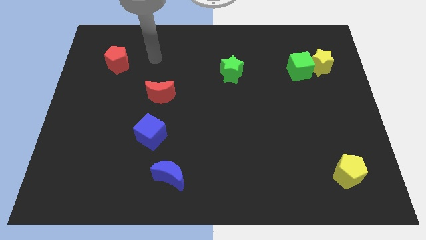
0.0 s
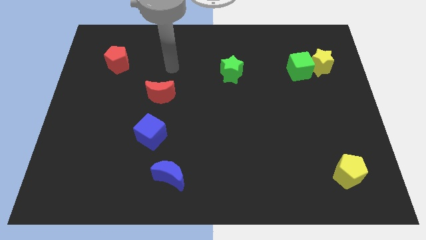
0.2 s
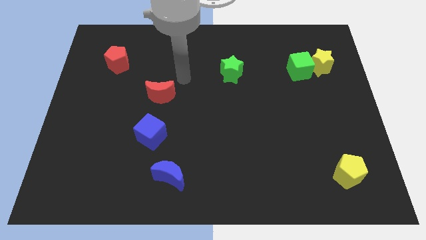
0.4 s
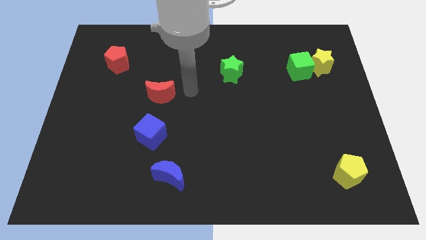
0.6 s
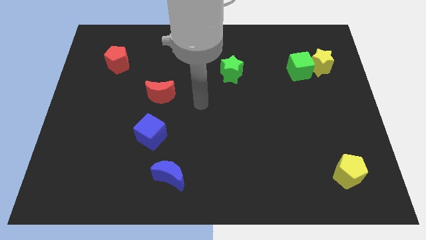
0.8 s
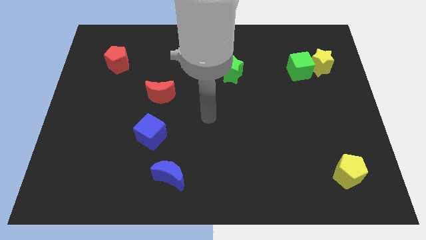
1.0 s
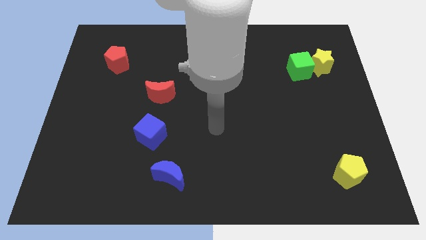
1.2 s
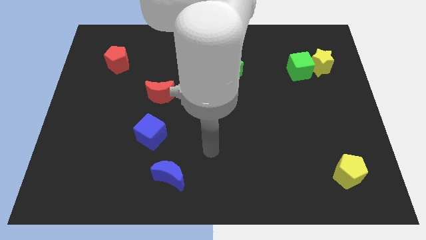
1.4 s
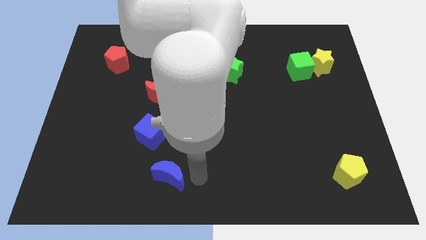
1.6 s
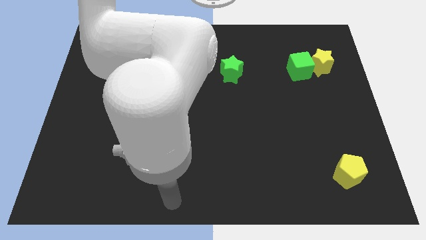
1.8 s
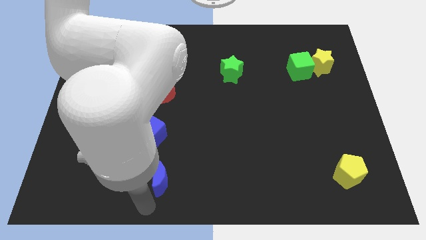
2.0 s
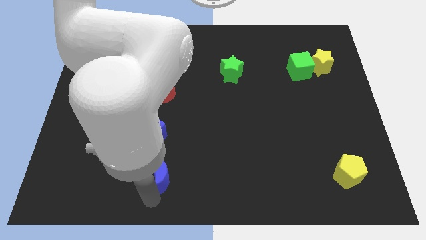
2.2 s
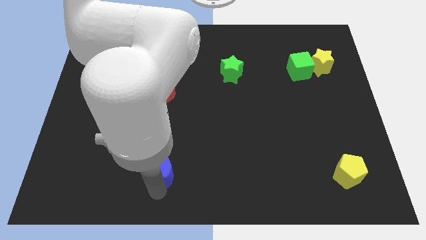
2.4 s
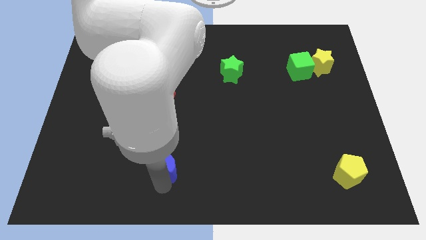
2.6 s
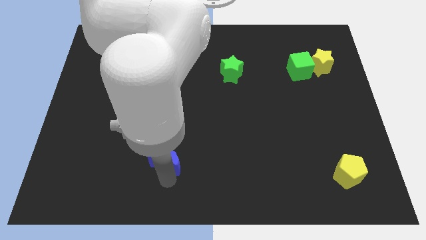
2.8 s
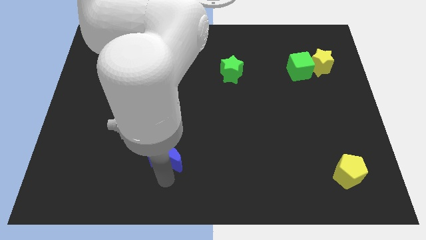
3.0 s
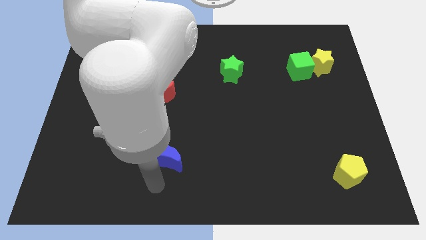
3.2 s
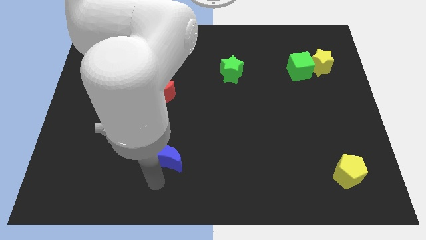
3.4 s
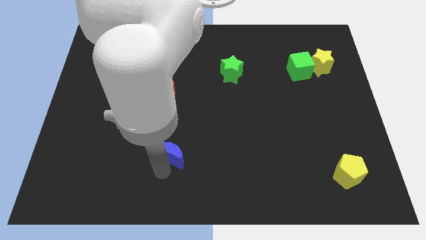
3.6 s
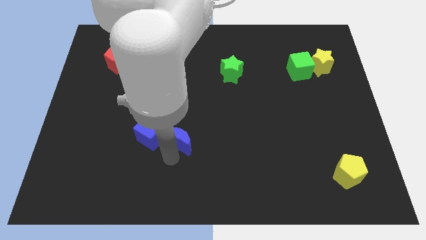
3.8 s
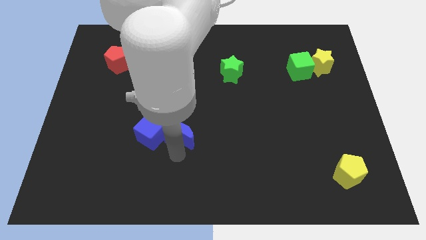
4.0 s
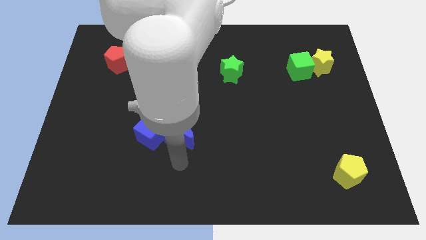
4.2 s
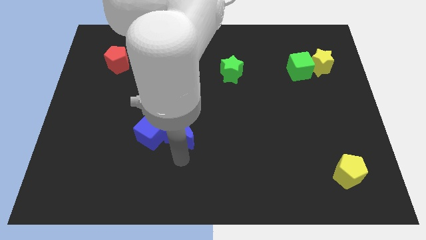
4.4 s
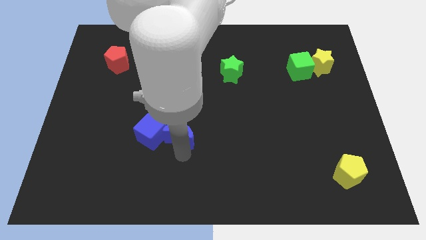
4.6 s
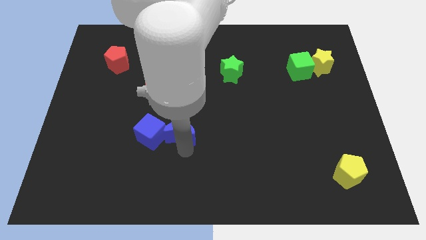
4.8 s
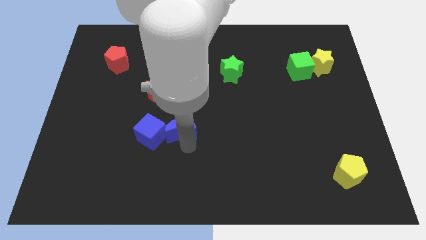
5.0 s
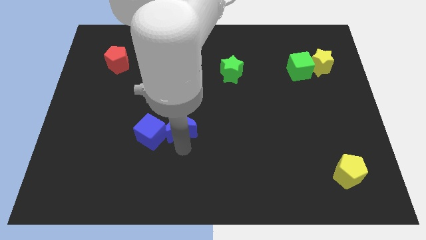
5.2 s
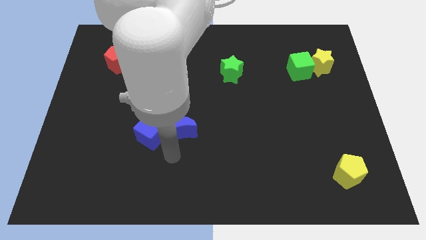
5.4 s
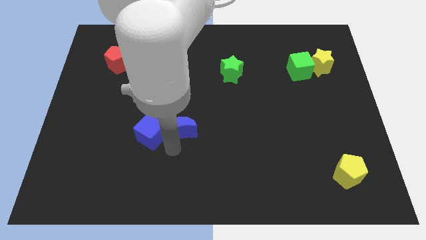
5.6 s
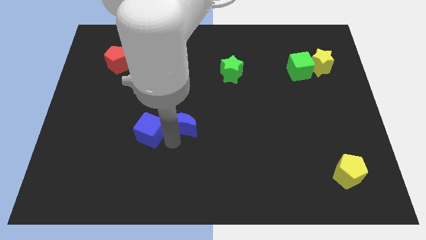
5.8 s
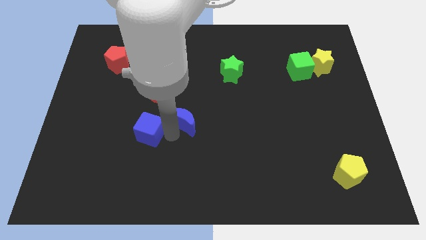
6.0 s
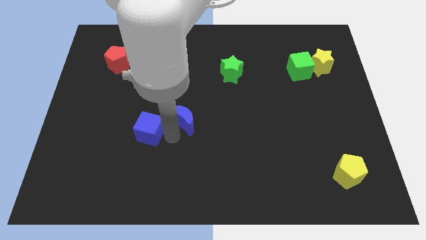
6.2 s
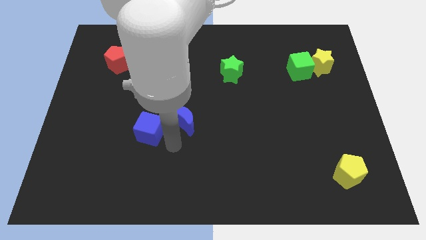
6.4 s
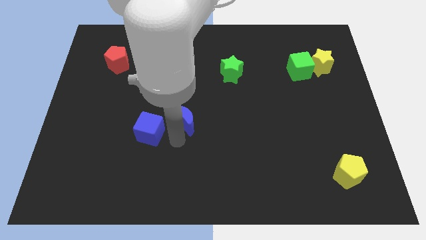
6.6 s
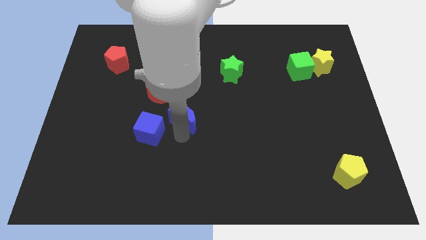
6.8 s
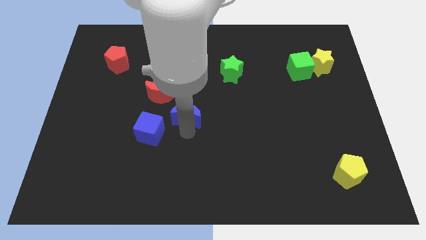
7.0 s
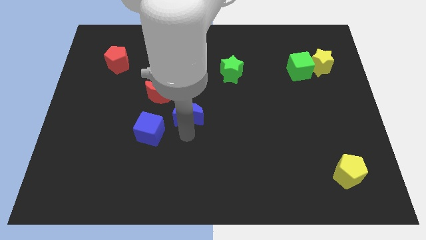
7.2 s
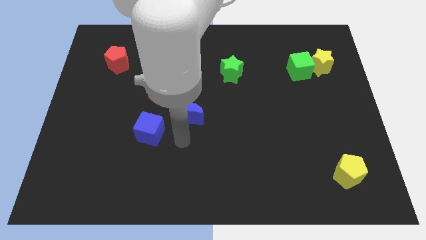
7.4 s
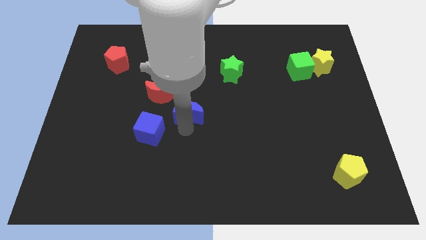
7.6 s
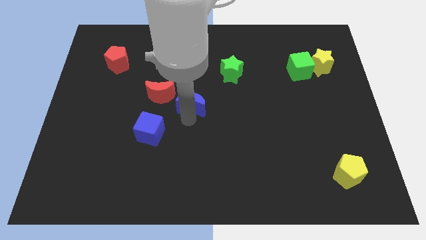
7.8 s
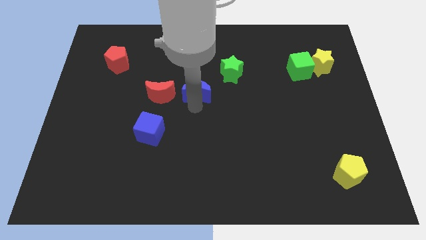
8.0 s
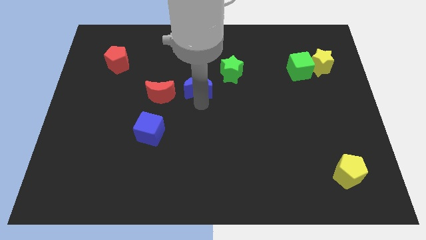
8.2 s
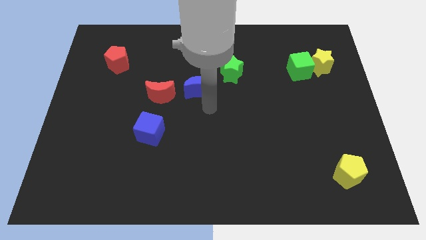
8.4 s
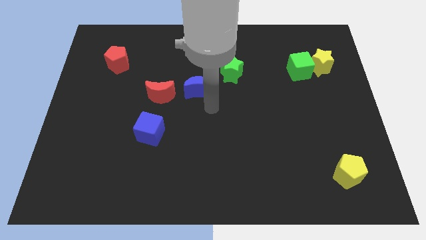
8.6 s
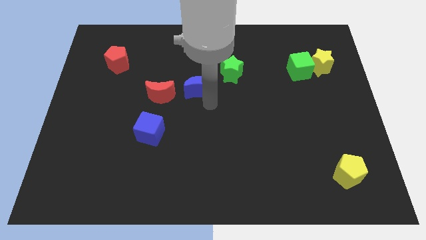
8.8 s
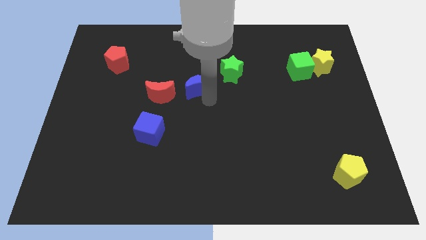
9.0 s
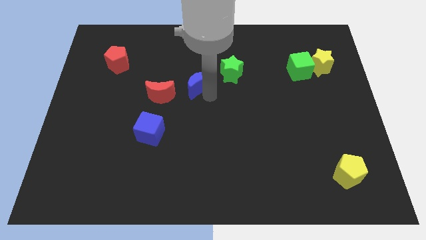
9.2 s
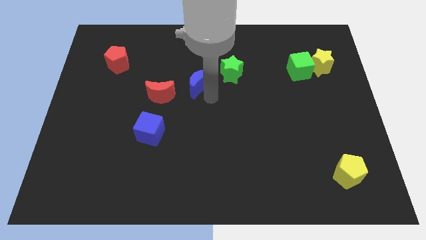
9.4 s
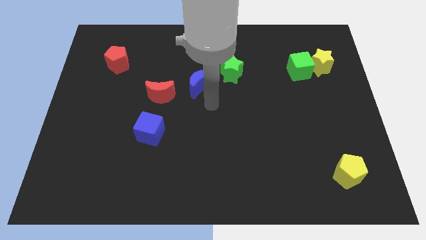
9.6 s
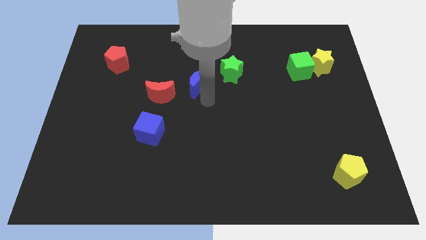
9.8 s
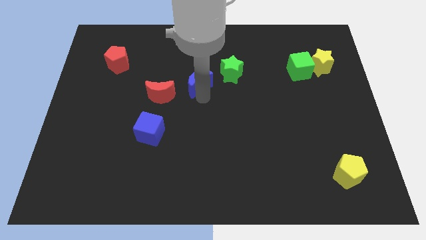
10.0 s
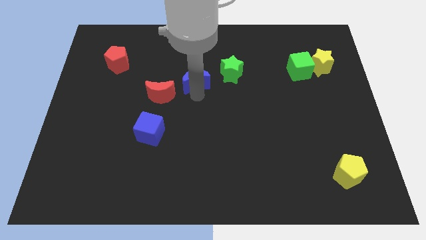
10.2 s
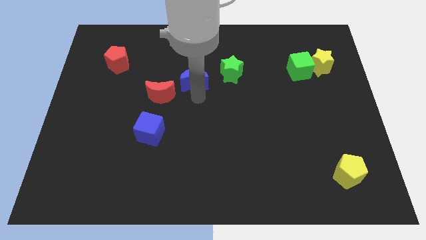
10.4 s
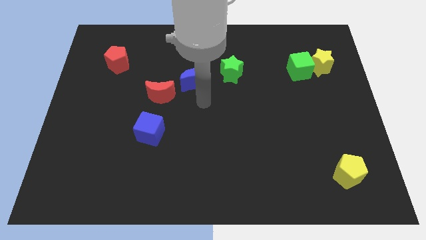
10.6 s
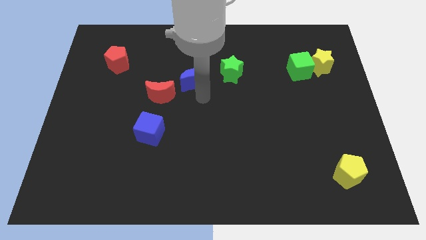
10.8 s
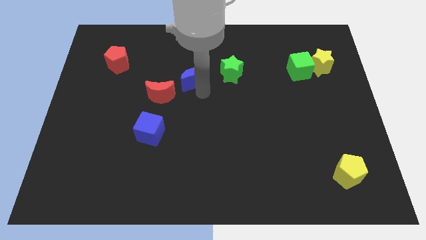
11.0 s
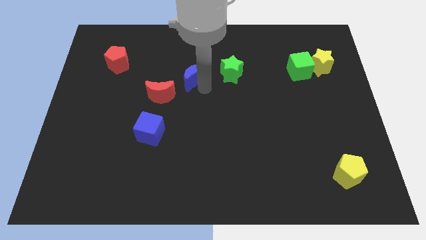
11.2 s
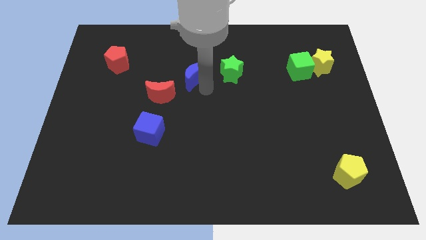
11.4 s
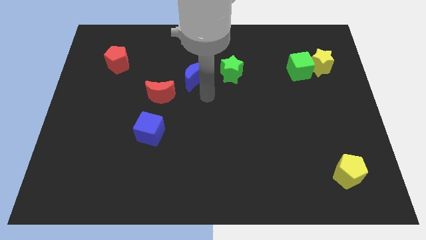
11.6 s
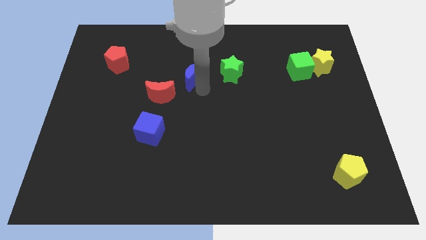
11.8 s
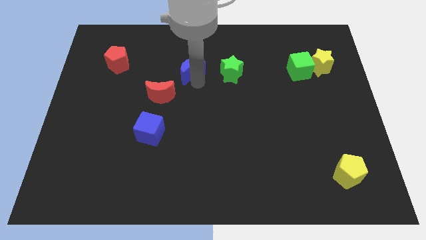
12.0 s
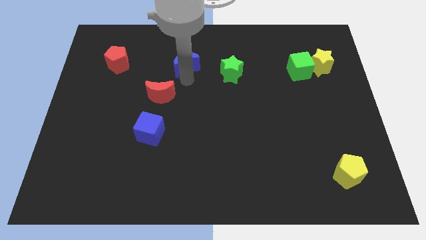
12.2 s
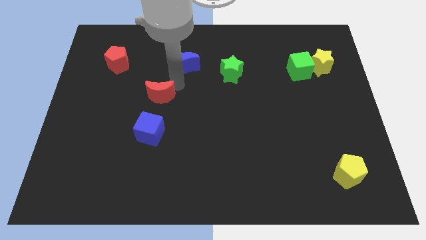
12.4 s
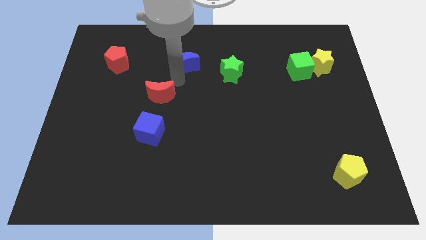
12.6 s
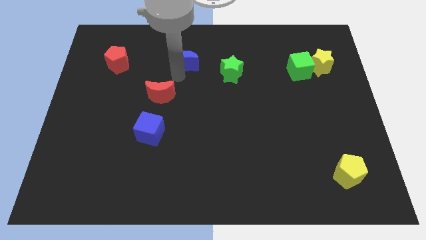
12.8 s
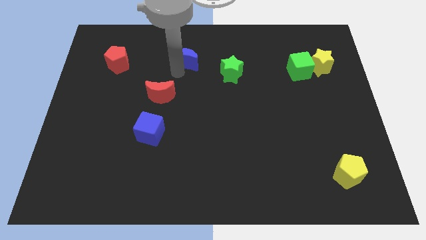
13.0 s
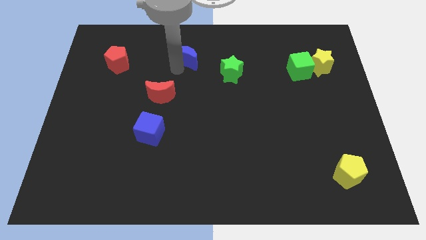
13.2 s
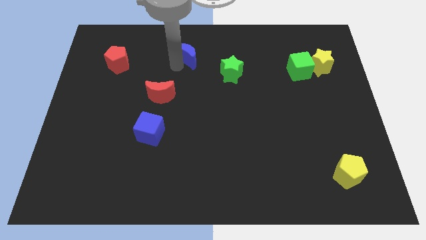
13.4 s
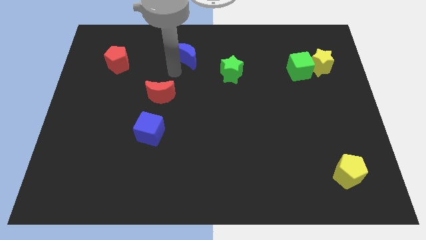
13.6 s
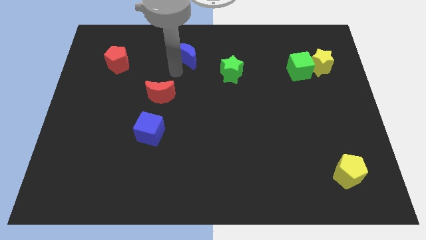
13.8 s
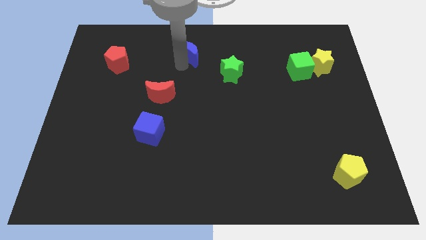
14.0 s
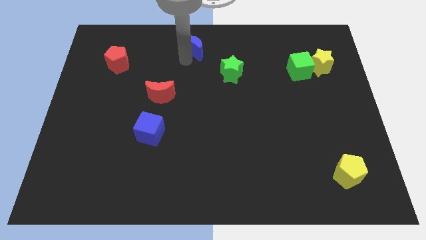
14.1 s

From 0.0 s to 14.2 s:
move the blue moon to the towards your base
